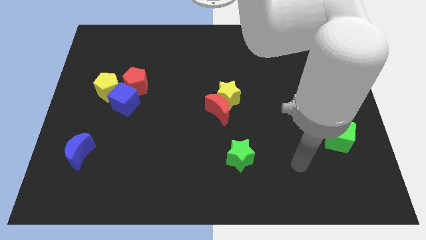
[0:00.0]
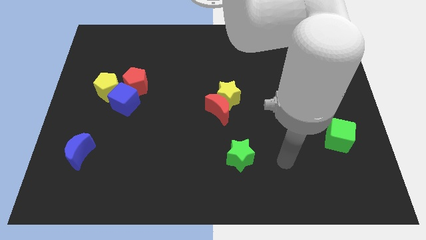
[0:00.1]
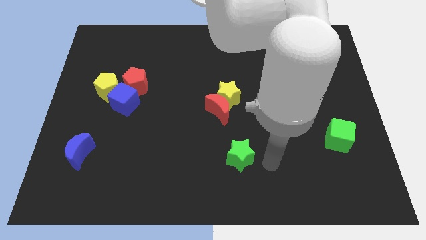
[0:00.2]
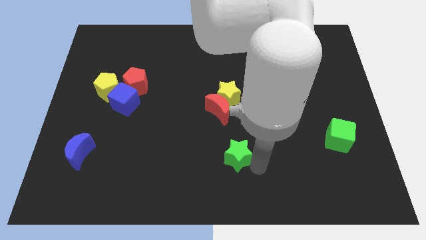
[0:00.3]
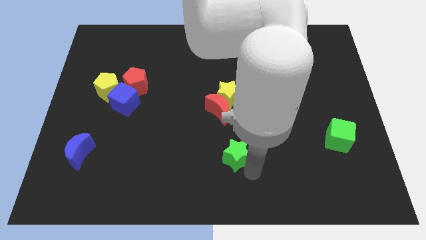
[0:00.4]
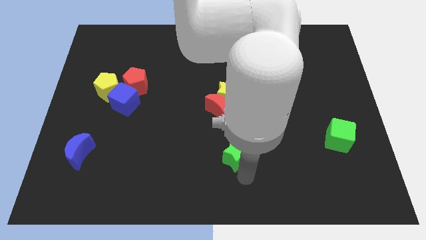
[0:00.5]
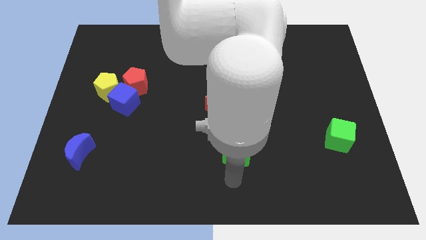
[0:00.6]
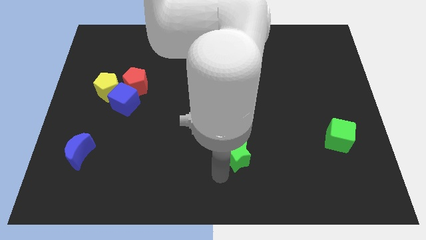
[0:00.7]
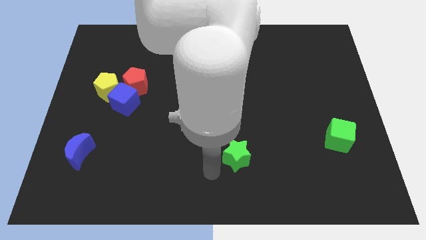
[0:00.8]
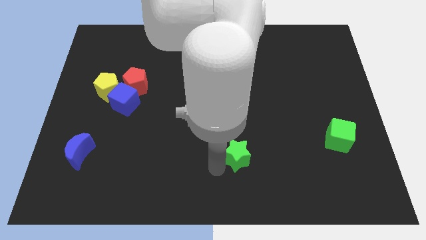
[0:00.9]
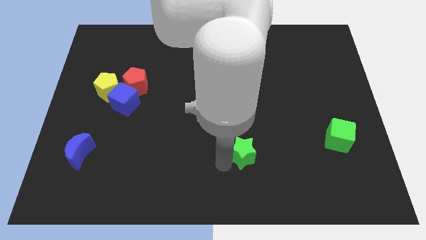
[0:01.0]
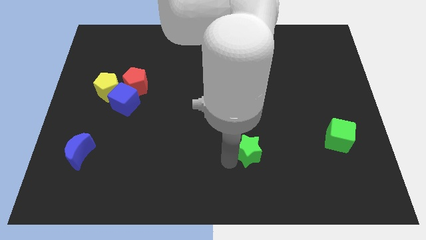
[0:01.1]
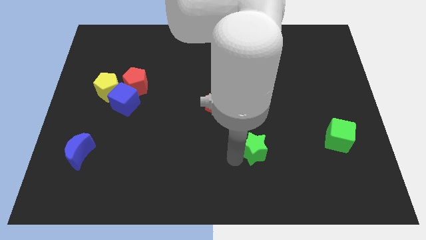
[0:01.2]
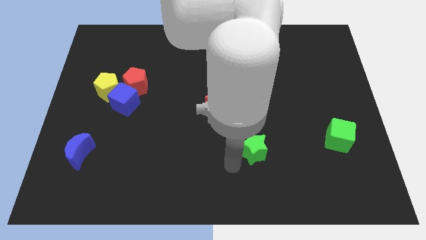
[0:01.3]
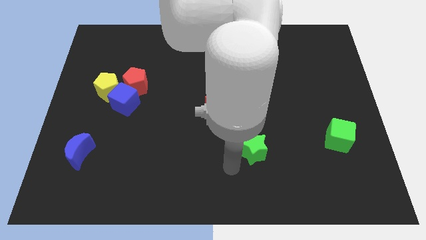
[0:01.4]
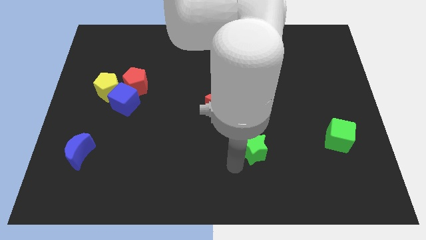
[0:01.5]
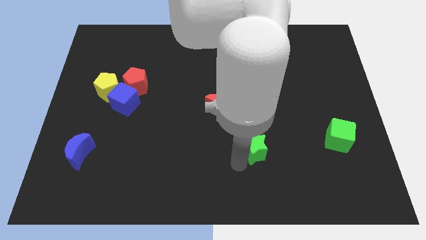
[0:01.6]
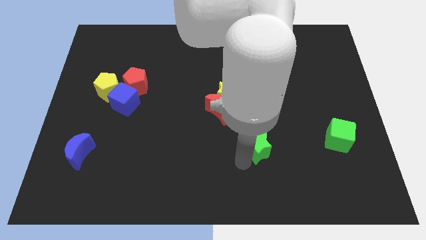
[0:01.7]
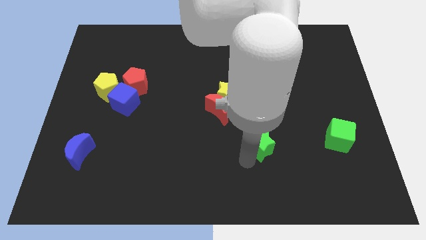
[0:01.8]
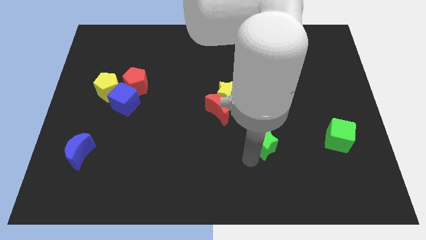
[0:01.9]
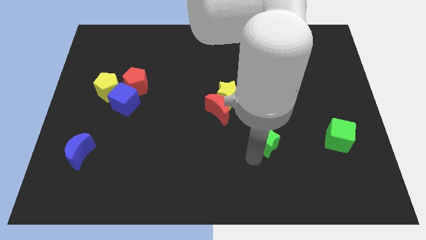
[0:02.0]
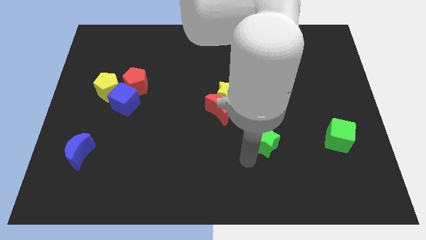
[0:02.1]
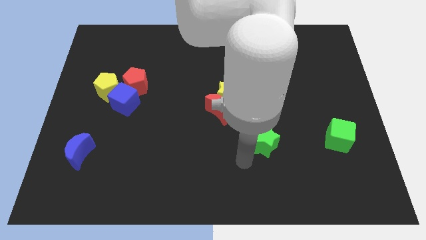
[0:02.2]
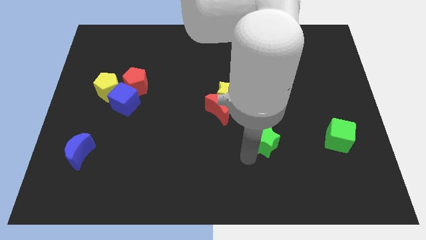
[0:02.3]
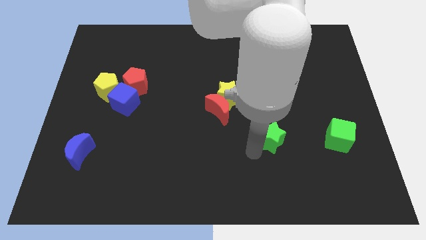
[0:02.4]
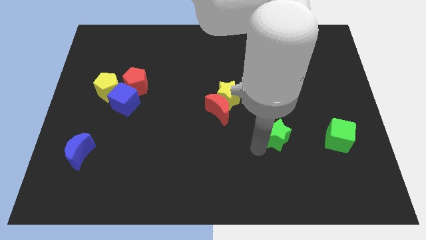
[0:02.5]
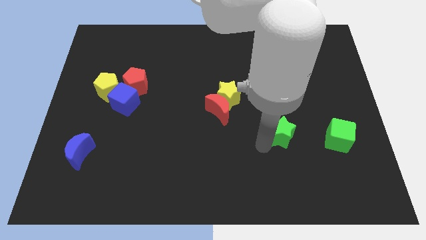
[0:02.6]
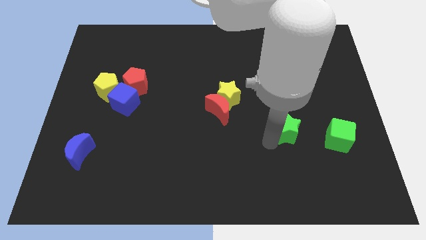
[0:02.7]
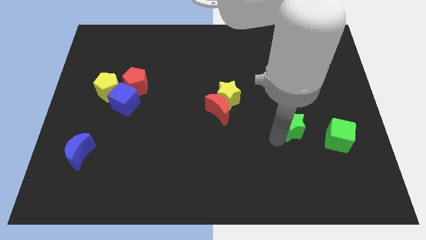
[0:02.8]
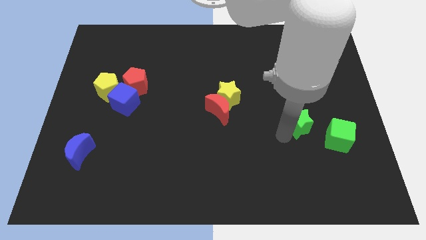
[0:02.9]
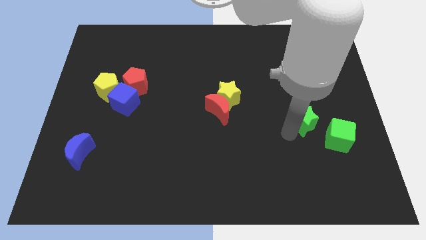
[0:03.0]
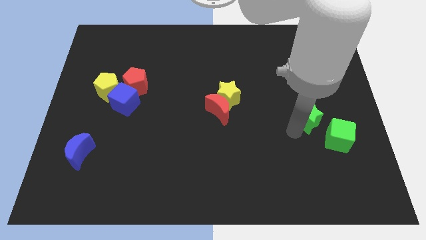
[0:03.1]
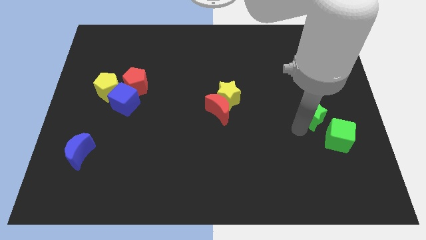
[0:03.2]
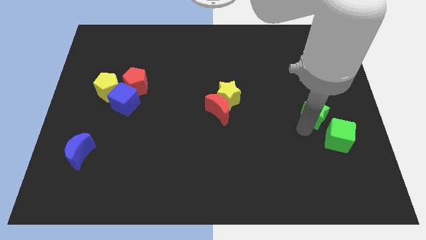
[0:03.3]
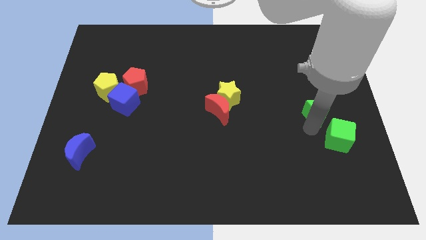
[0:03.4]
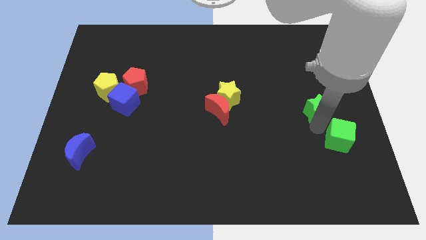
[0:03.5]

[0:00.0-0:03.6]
slide the green star up and right
